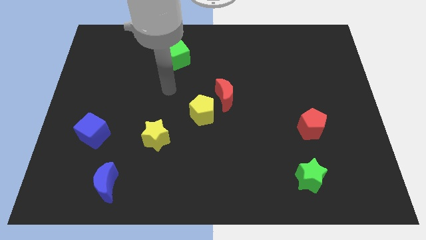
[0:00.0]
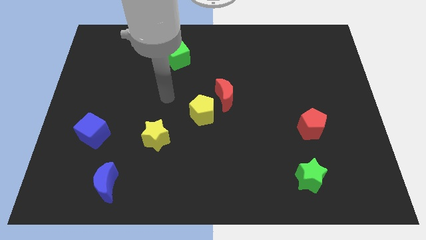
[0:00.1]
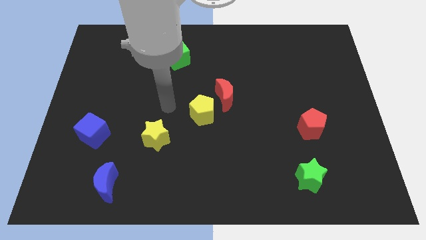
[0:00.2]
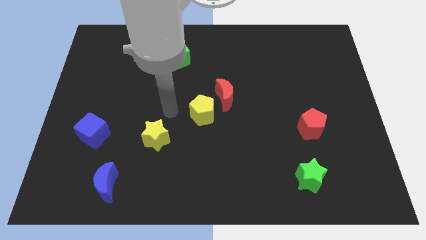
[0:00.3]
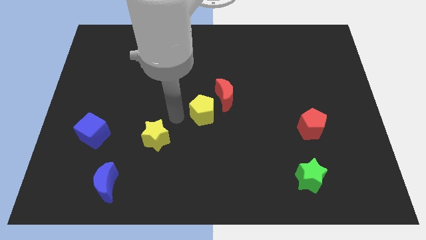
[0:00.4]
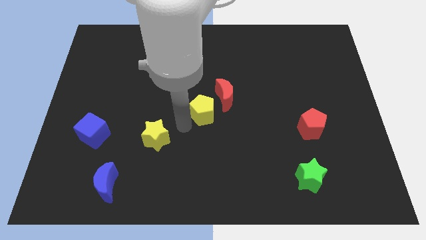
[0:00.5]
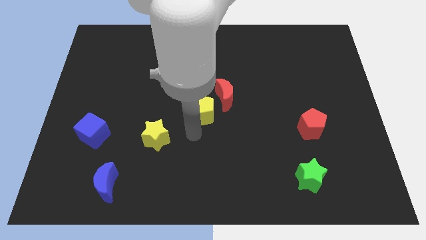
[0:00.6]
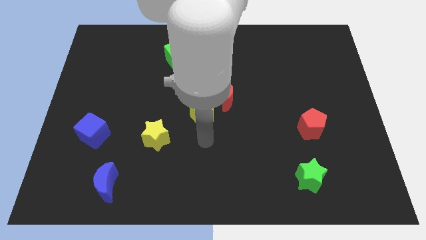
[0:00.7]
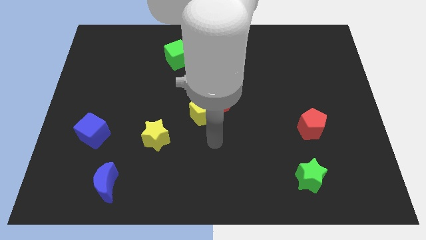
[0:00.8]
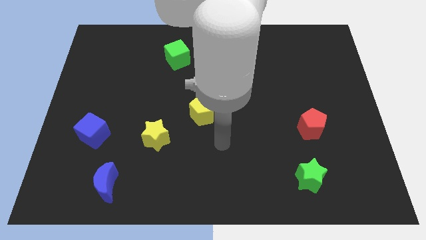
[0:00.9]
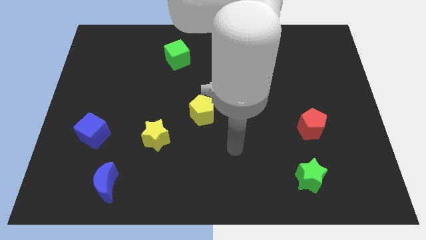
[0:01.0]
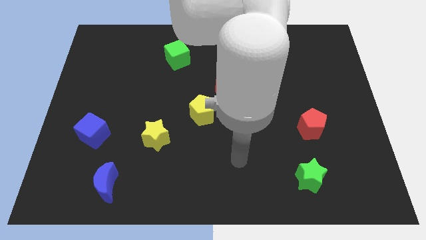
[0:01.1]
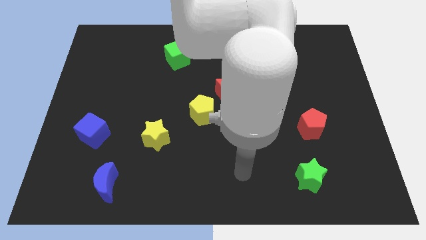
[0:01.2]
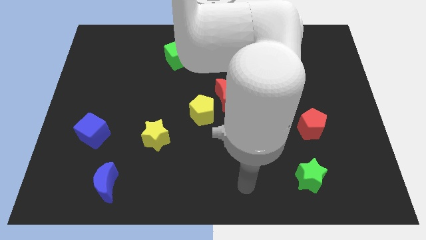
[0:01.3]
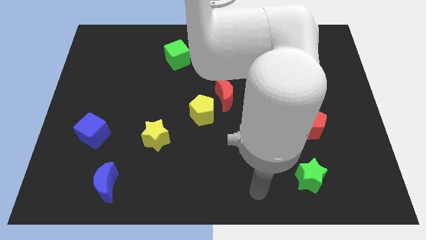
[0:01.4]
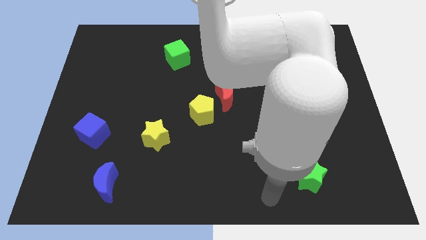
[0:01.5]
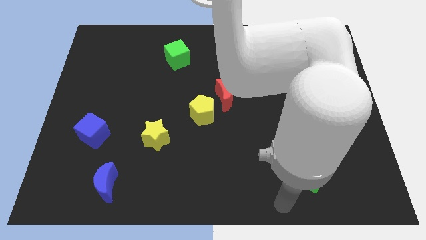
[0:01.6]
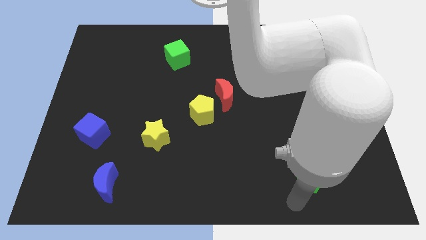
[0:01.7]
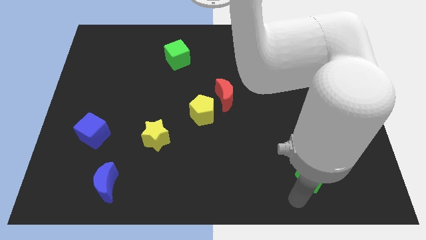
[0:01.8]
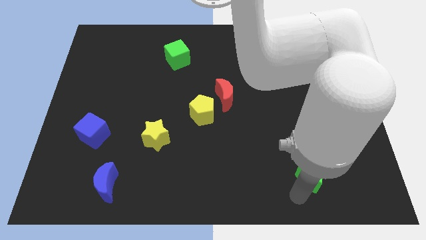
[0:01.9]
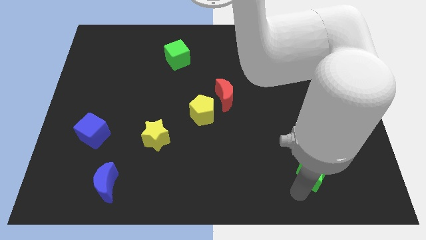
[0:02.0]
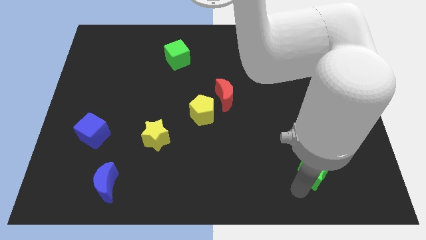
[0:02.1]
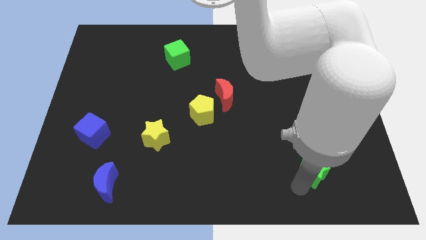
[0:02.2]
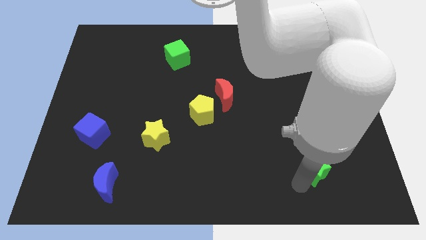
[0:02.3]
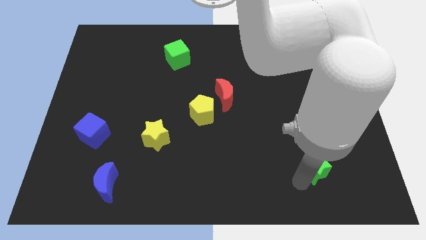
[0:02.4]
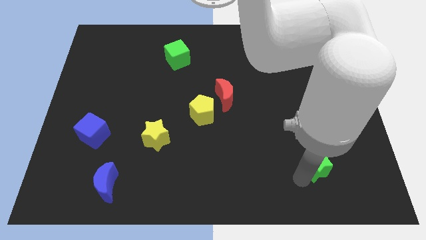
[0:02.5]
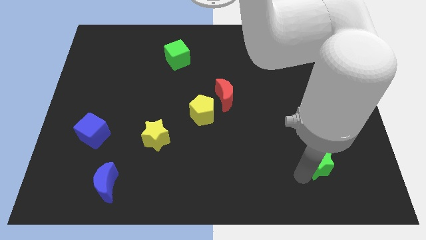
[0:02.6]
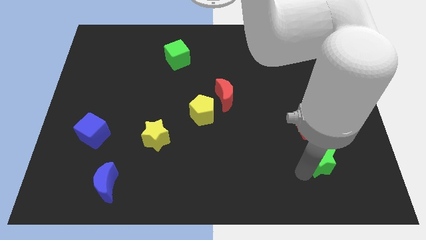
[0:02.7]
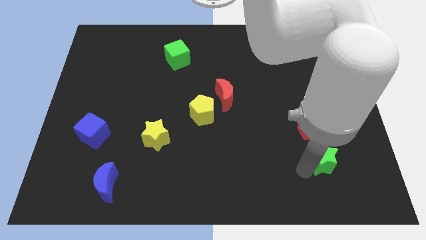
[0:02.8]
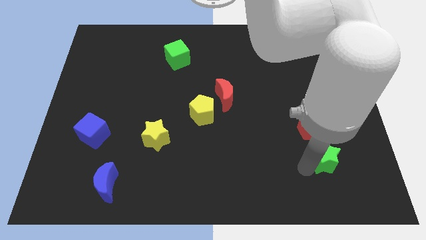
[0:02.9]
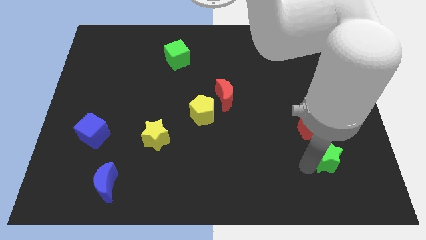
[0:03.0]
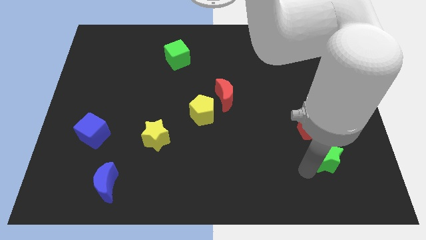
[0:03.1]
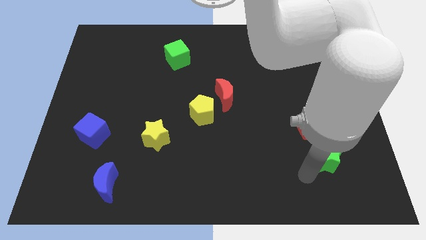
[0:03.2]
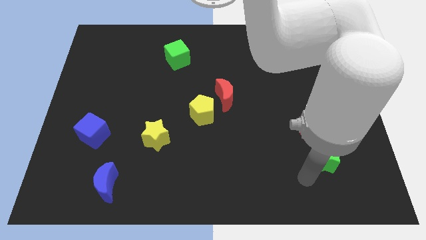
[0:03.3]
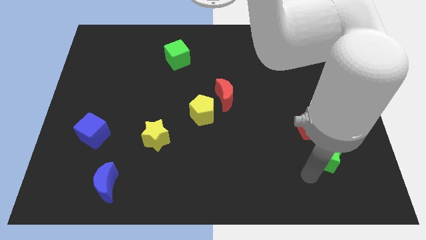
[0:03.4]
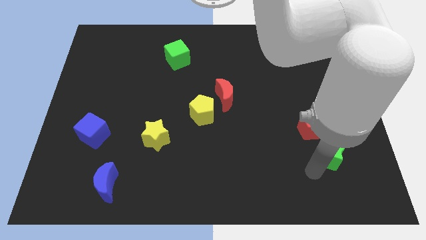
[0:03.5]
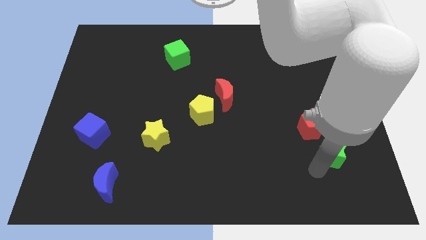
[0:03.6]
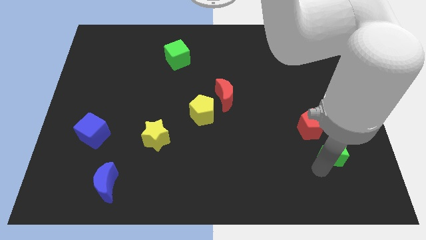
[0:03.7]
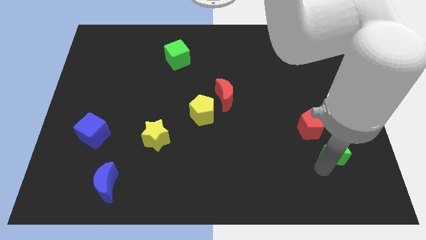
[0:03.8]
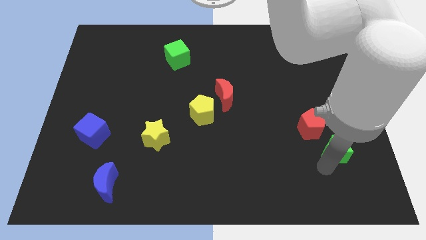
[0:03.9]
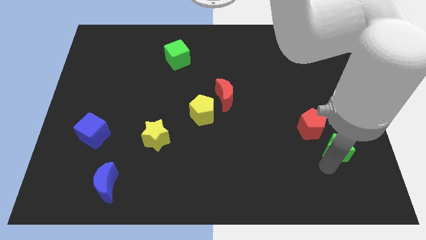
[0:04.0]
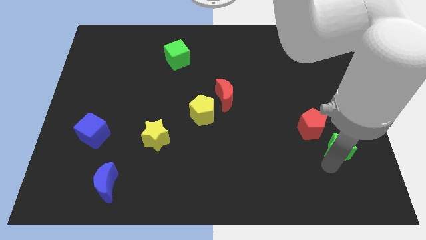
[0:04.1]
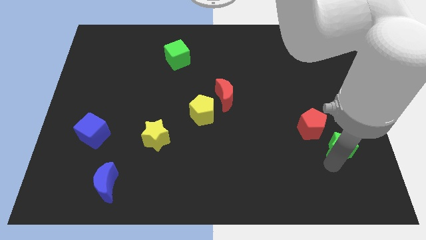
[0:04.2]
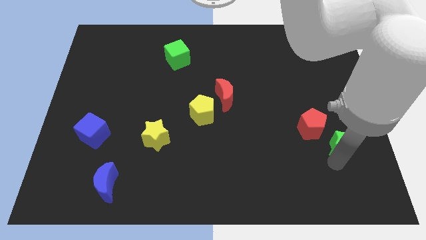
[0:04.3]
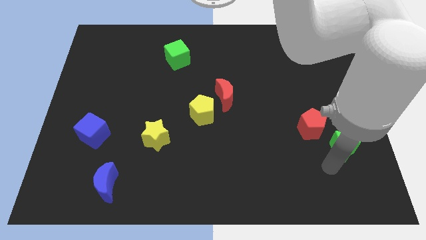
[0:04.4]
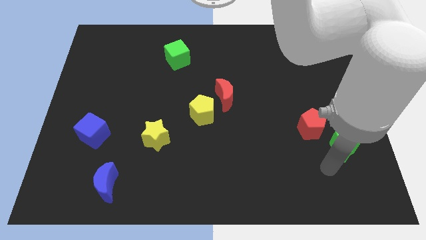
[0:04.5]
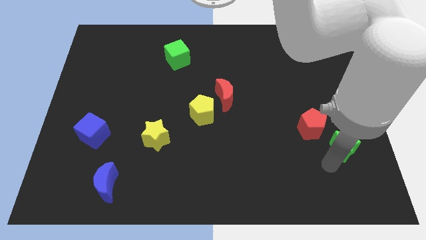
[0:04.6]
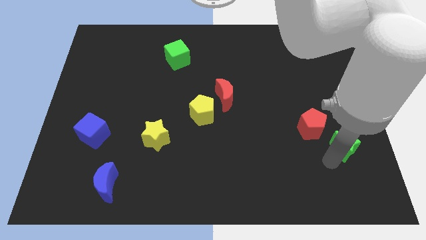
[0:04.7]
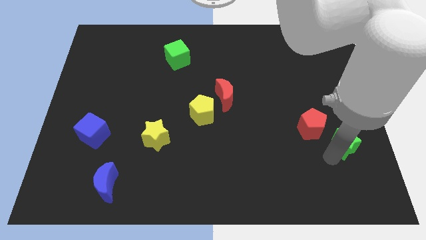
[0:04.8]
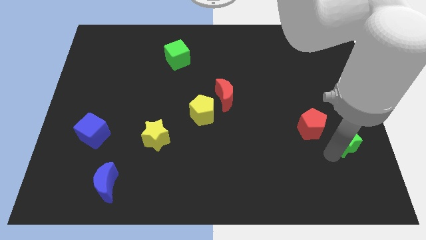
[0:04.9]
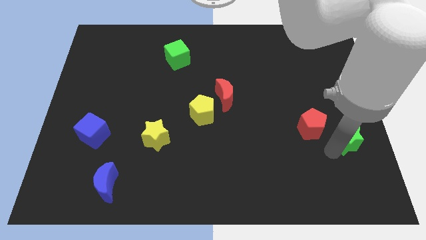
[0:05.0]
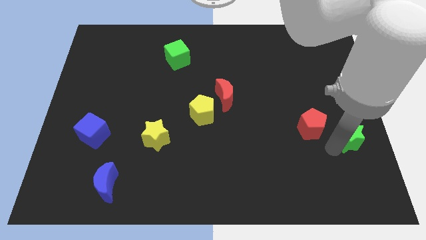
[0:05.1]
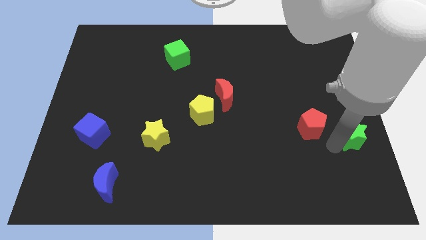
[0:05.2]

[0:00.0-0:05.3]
push the green star to the right side of the board

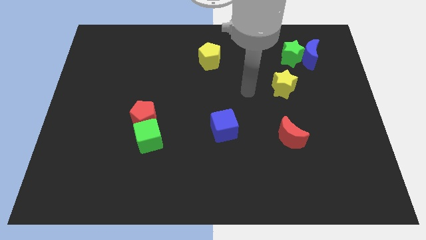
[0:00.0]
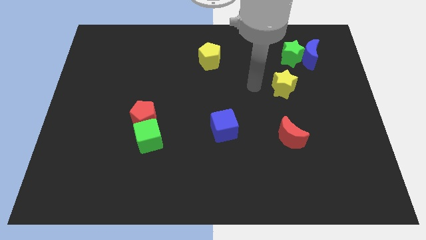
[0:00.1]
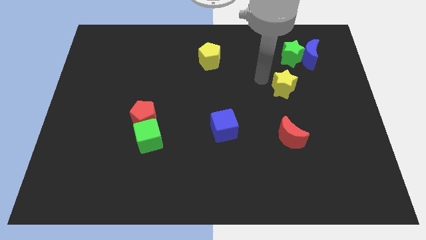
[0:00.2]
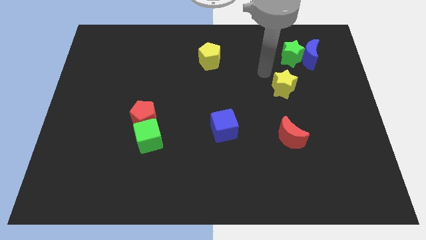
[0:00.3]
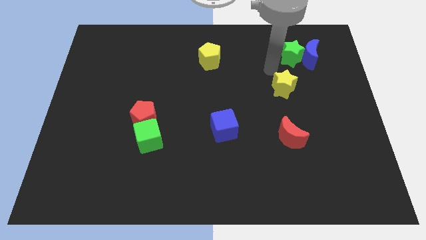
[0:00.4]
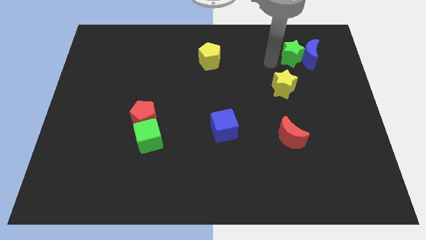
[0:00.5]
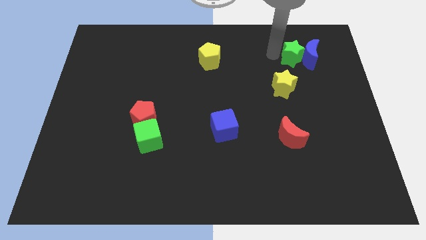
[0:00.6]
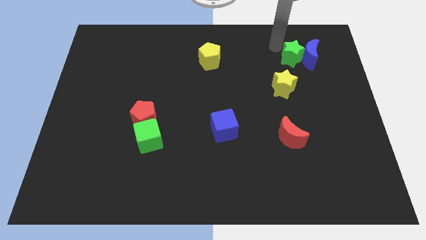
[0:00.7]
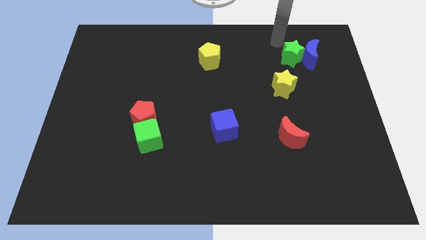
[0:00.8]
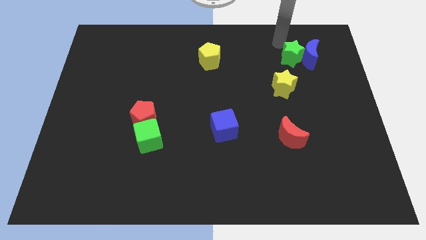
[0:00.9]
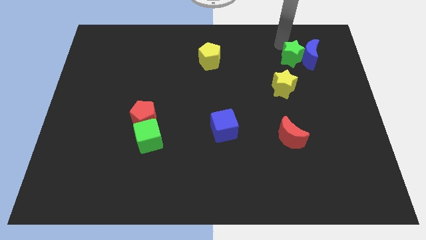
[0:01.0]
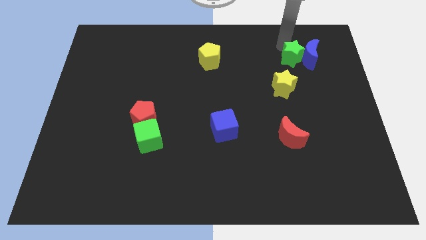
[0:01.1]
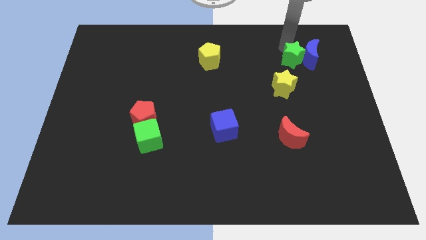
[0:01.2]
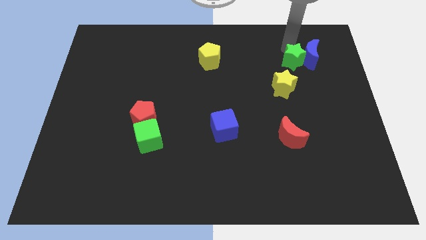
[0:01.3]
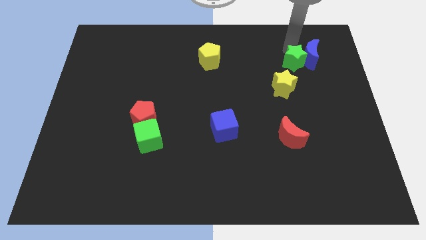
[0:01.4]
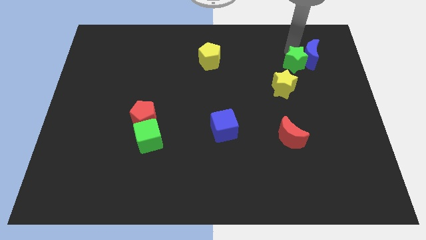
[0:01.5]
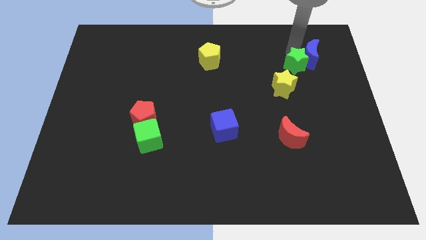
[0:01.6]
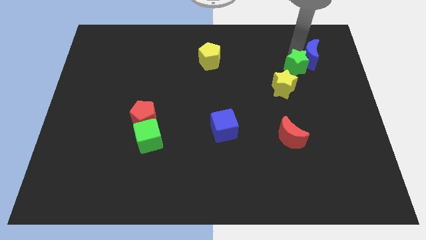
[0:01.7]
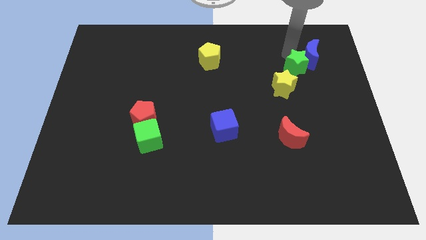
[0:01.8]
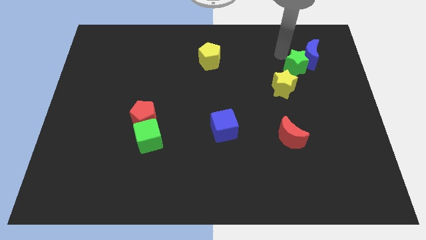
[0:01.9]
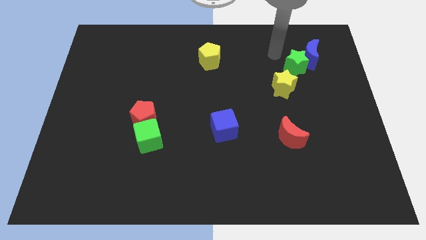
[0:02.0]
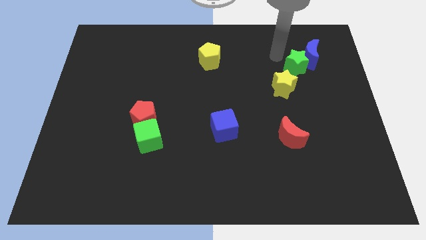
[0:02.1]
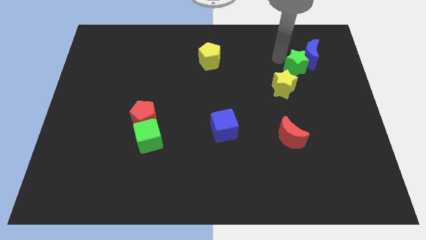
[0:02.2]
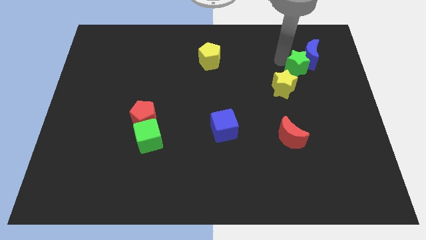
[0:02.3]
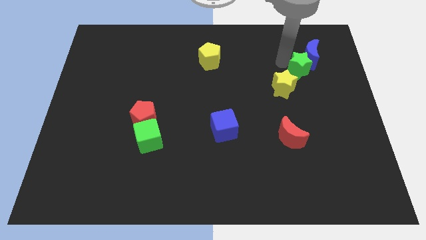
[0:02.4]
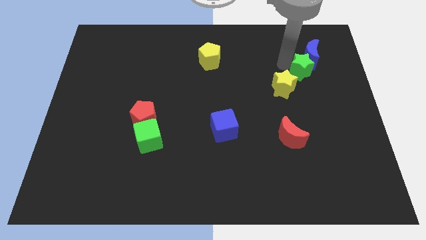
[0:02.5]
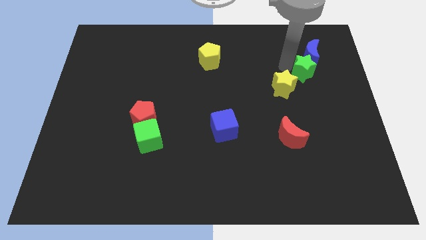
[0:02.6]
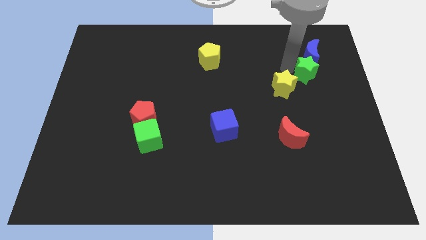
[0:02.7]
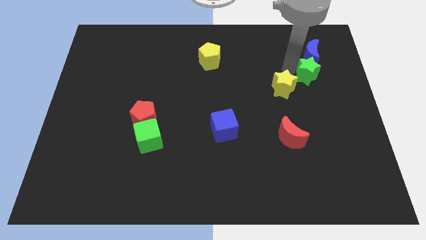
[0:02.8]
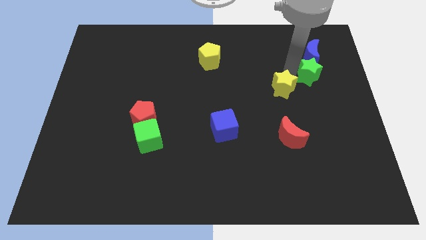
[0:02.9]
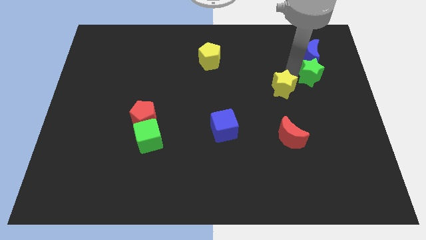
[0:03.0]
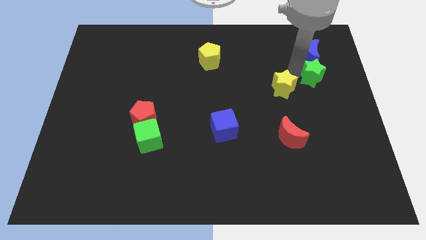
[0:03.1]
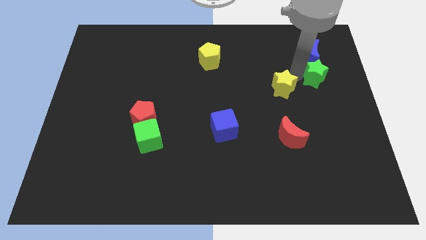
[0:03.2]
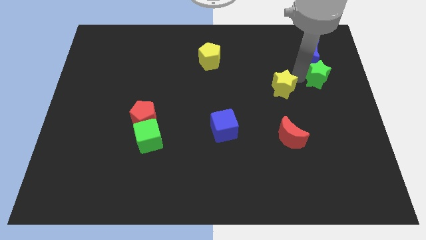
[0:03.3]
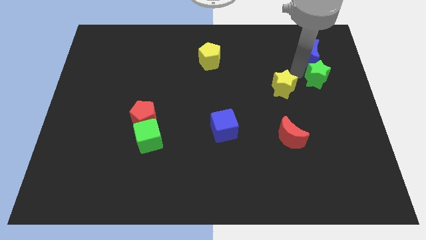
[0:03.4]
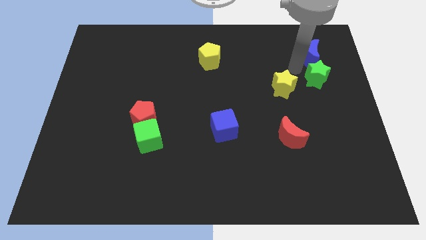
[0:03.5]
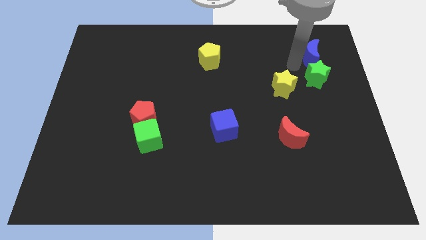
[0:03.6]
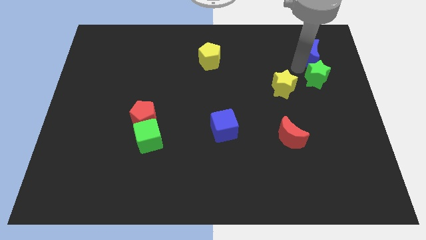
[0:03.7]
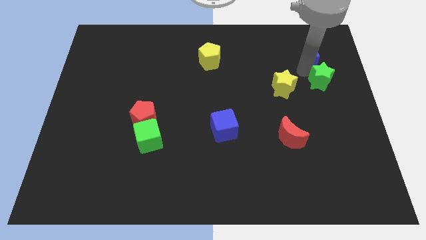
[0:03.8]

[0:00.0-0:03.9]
put the green star to the center right
